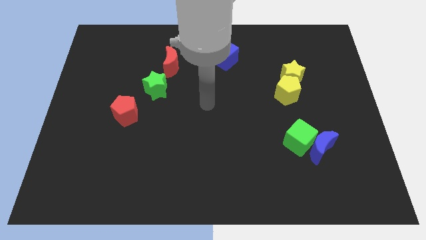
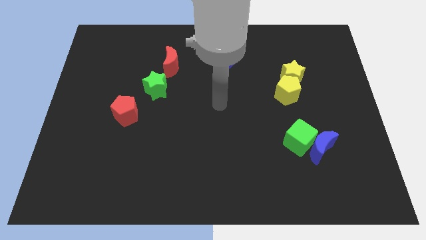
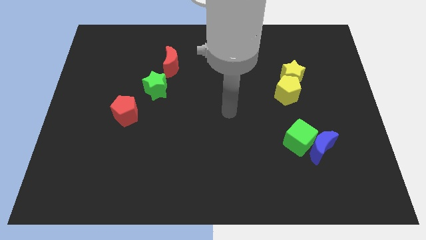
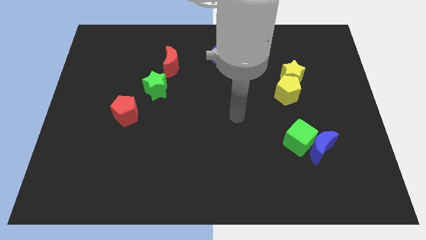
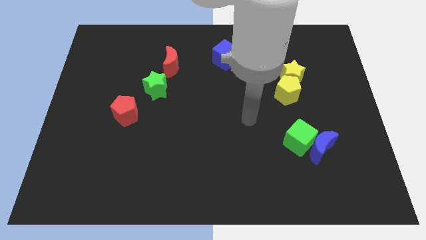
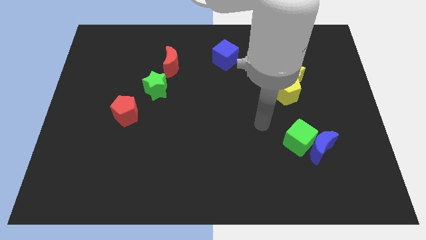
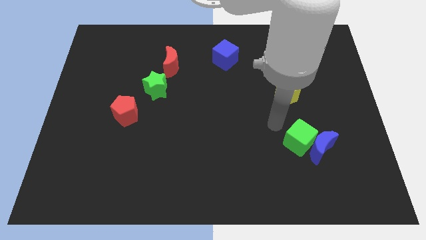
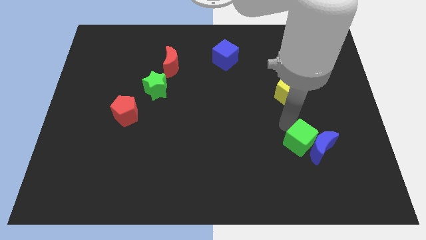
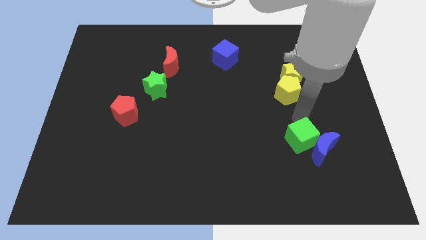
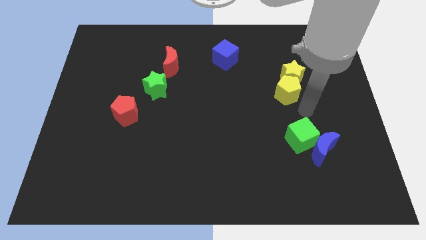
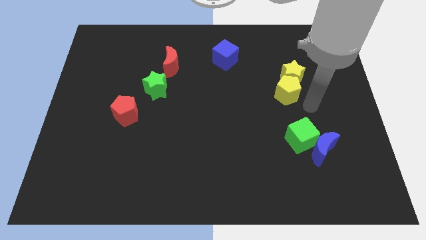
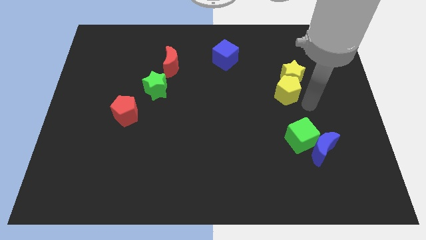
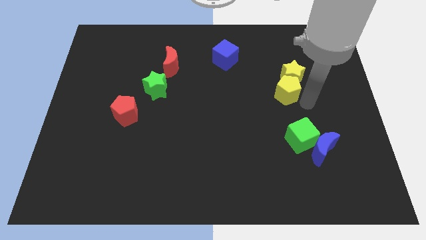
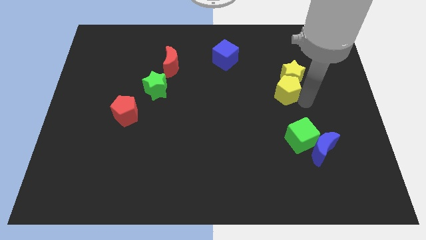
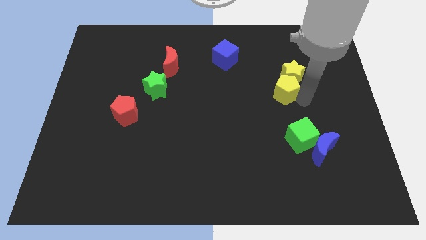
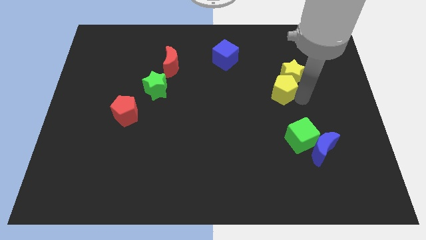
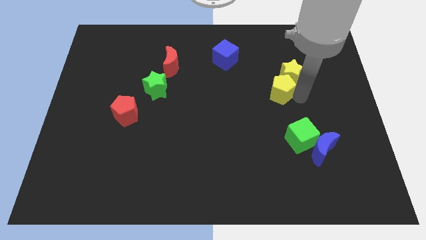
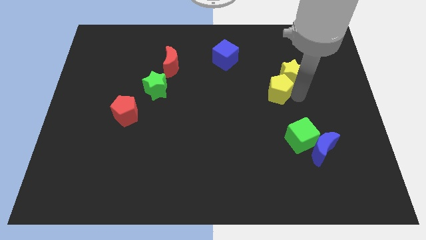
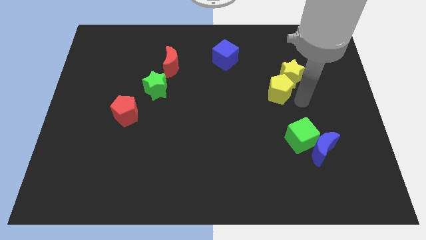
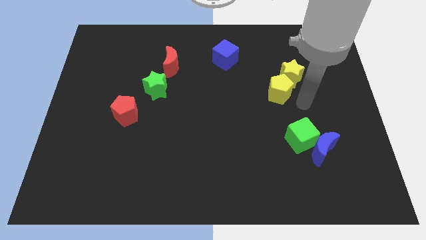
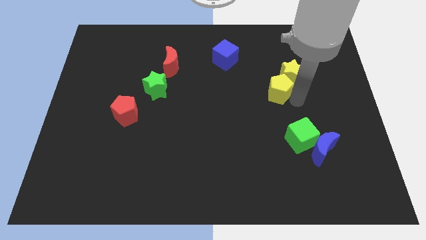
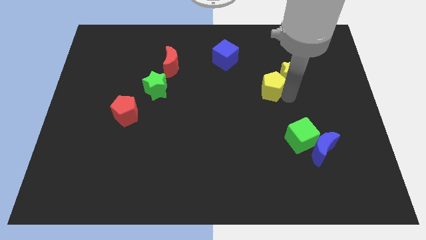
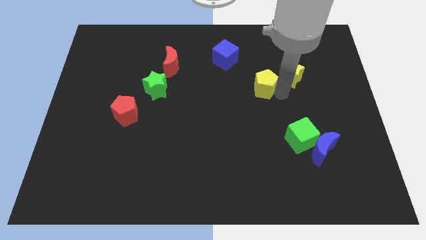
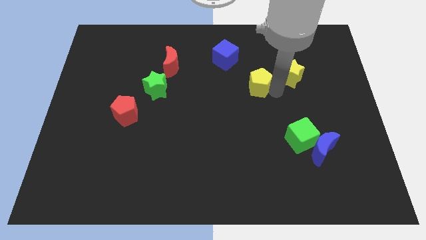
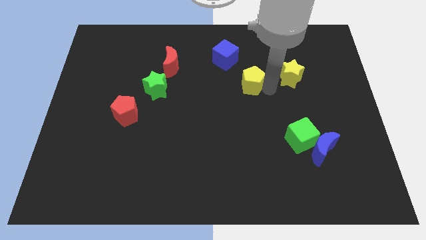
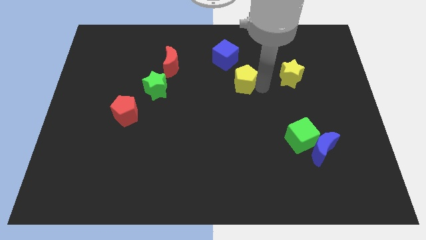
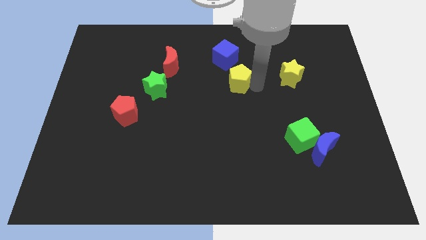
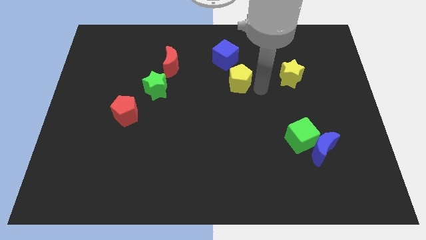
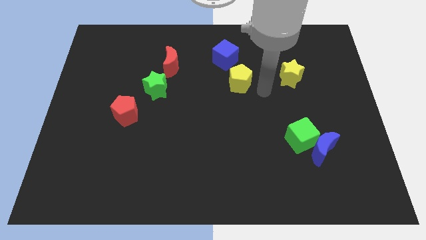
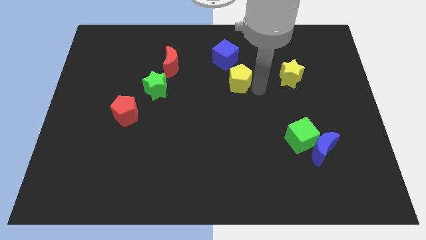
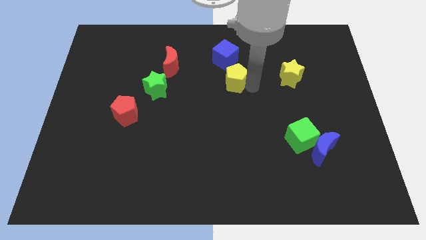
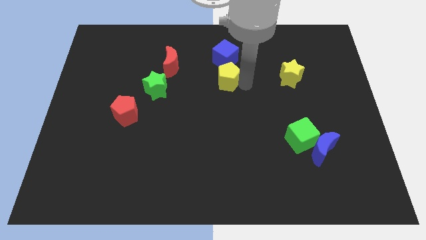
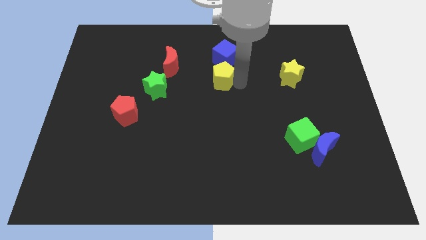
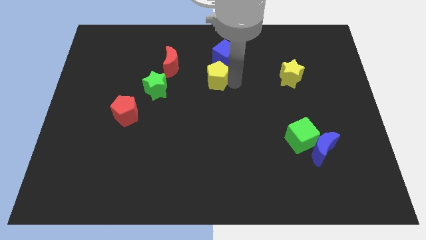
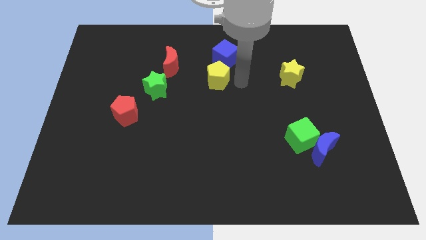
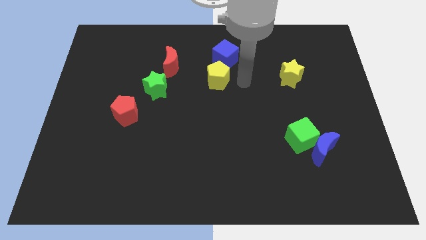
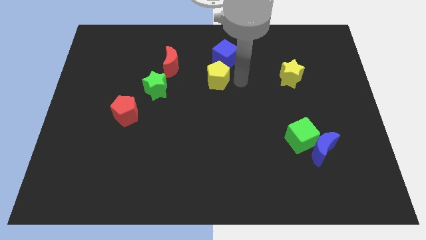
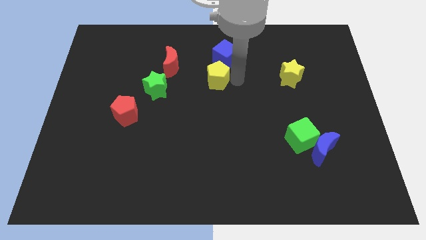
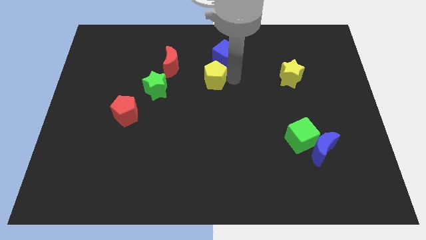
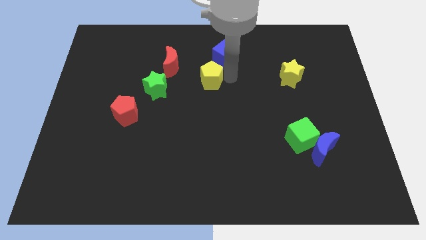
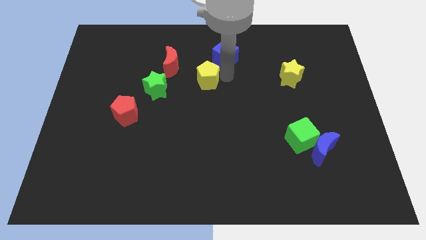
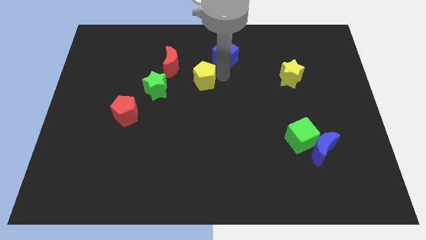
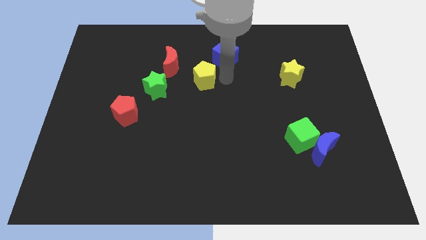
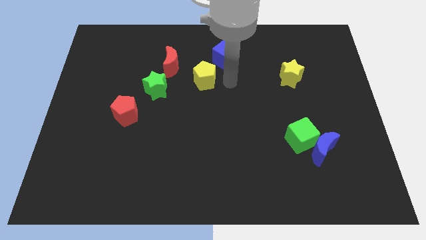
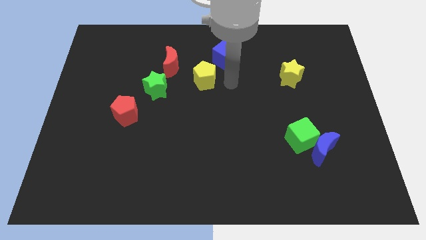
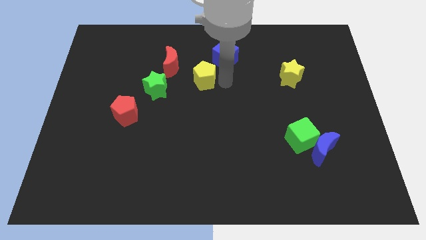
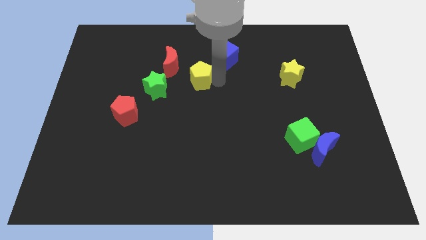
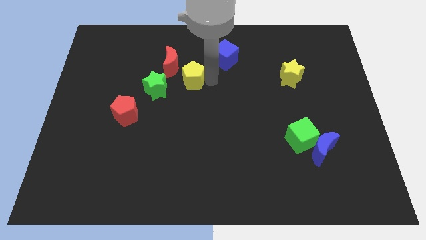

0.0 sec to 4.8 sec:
slide the yellow pentagon diagonally up and to the right of the green star

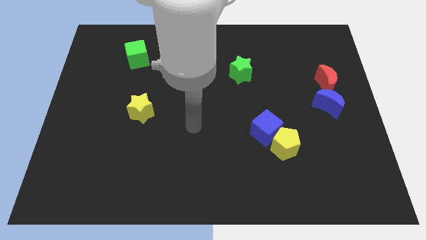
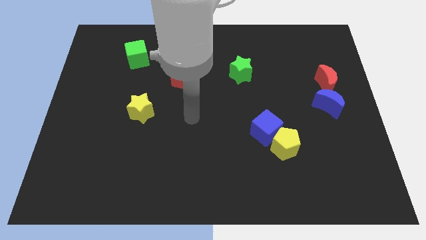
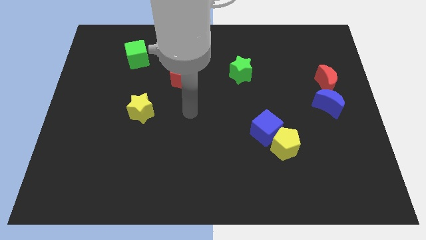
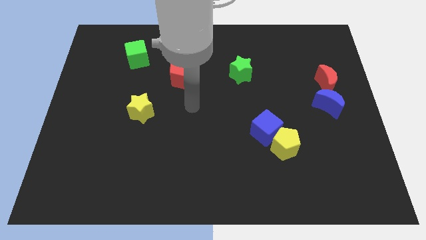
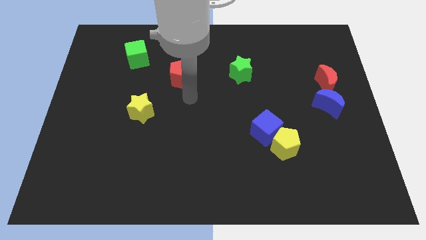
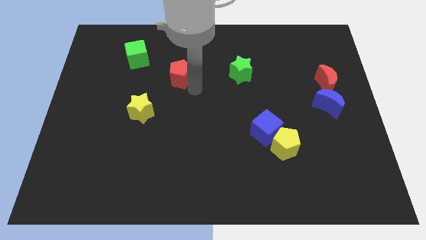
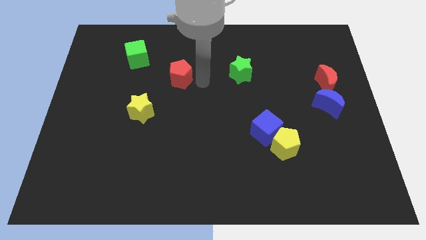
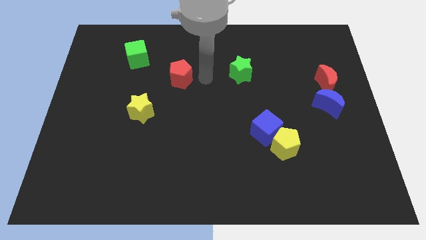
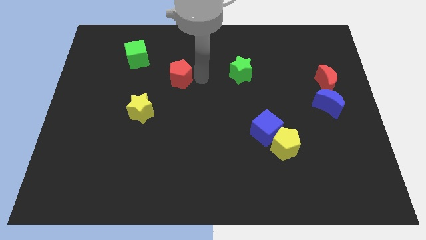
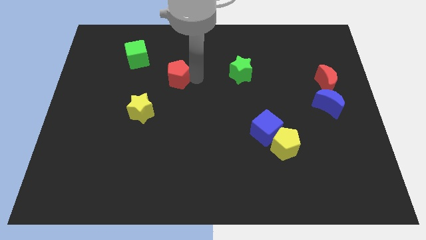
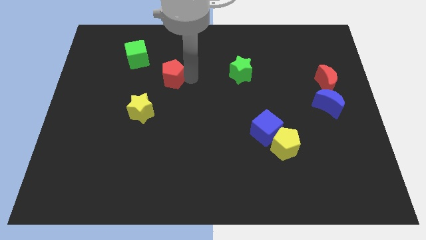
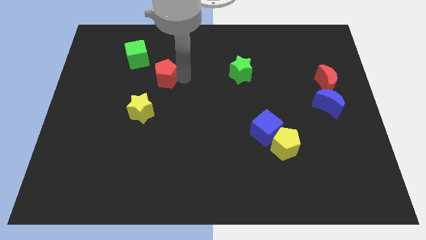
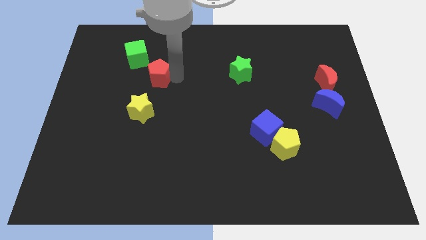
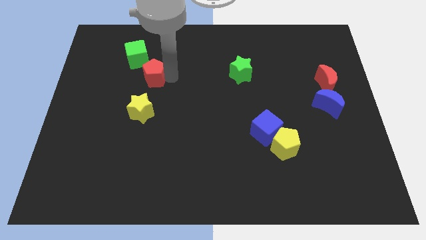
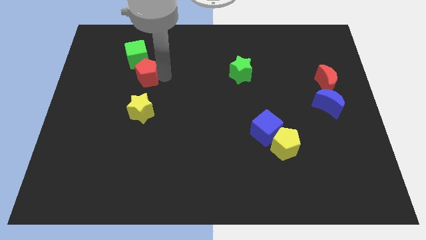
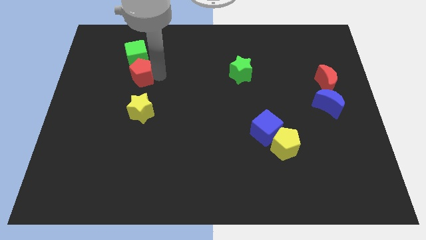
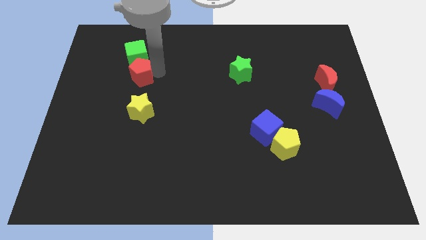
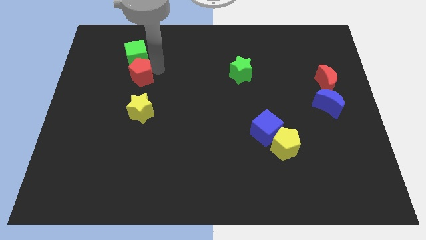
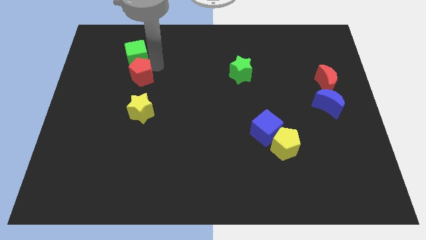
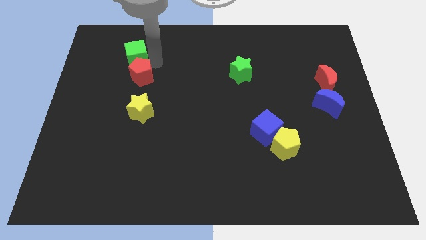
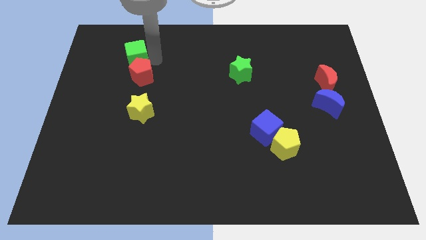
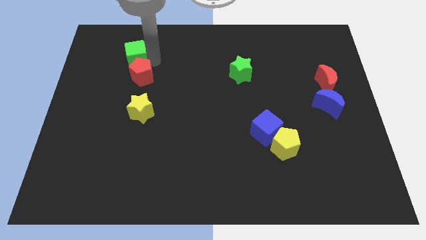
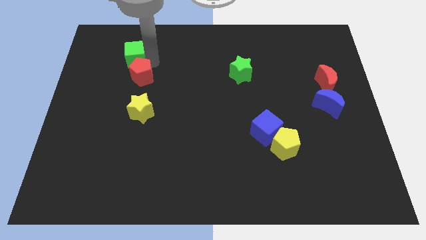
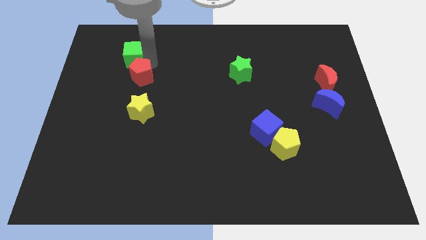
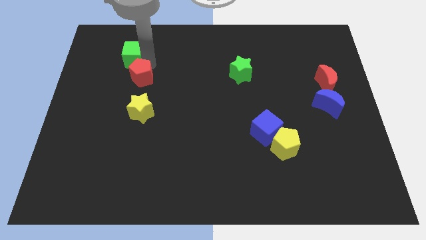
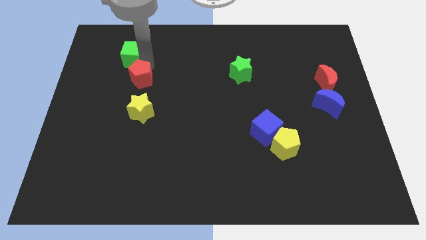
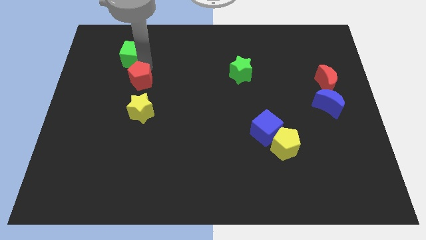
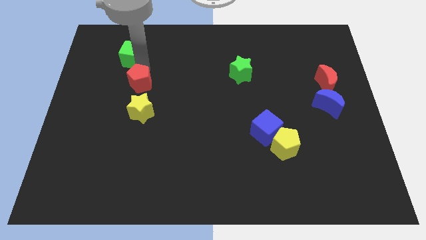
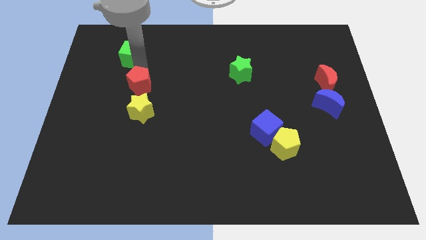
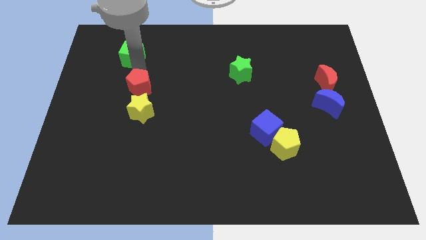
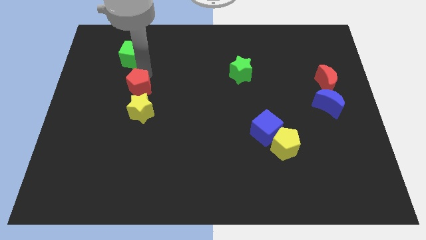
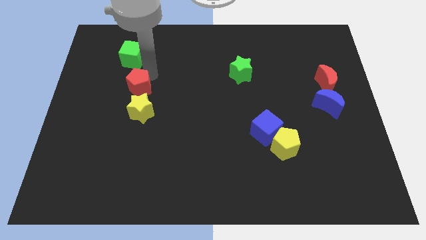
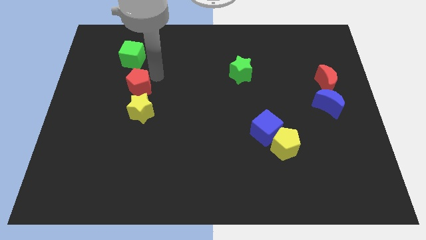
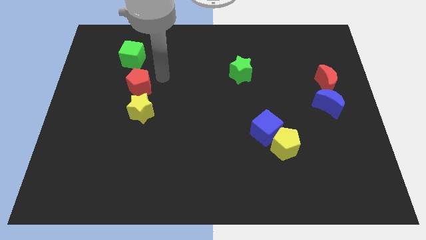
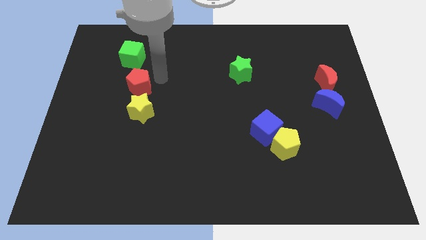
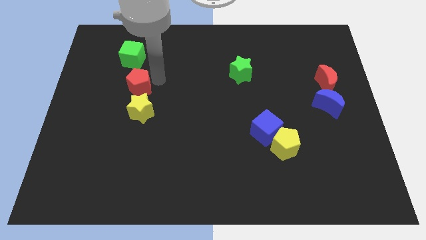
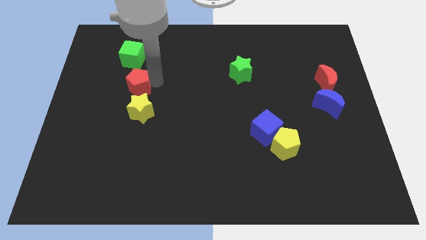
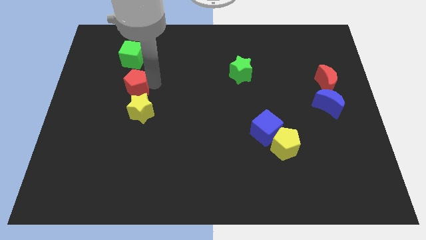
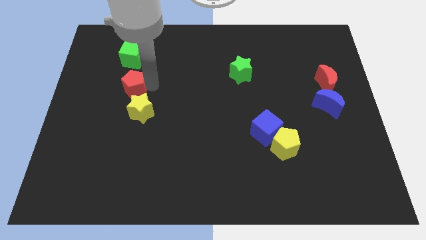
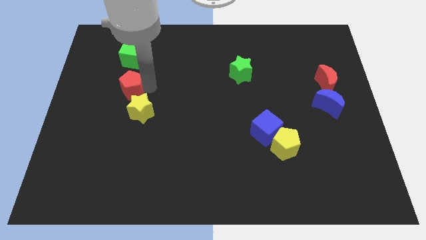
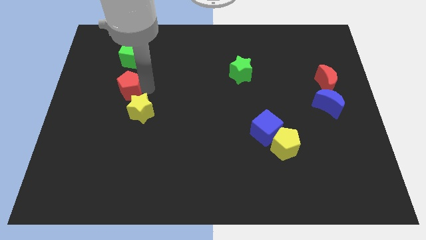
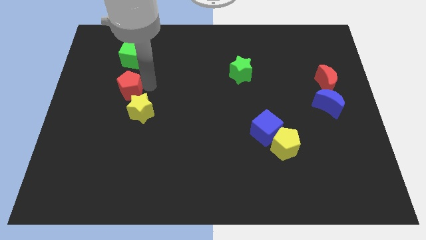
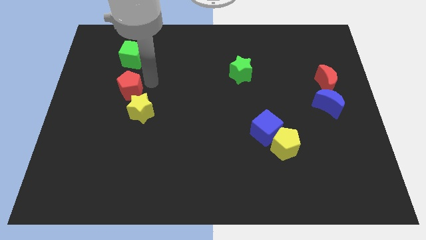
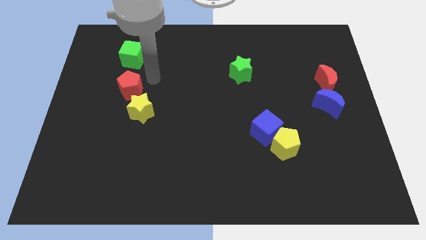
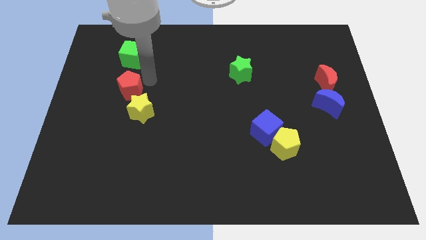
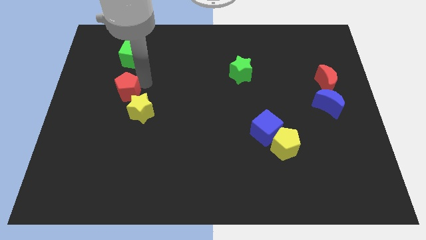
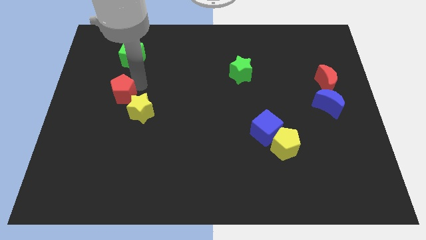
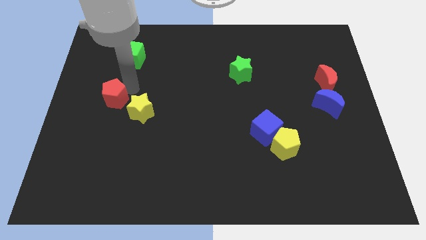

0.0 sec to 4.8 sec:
move the red pentagon just left of the yellow star
